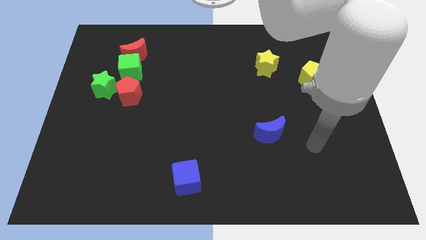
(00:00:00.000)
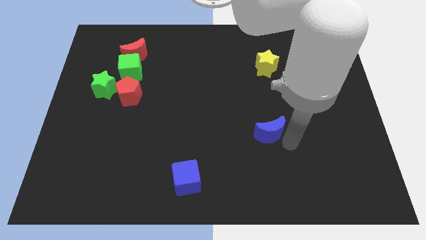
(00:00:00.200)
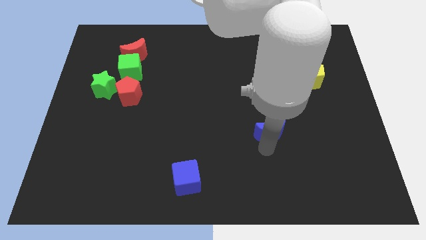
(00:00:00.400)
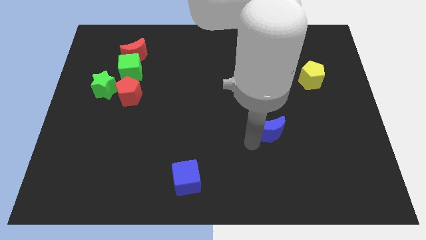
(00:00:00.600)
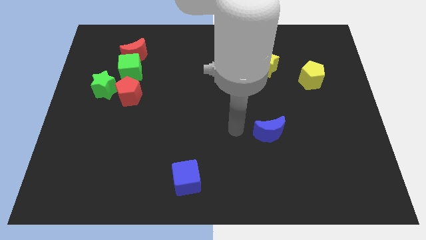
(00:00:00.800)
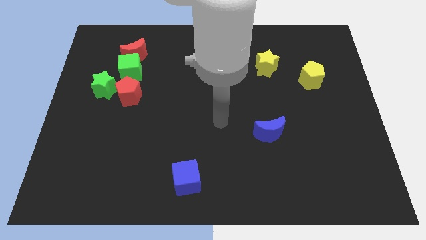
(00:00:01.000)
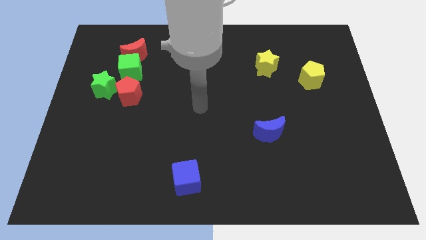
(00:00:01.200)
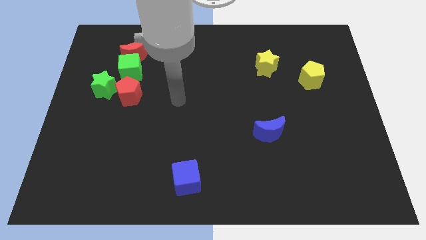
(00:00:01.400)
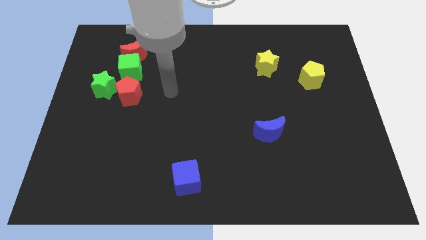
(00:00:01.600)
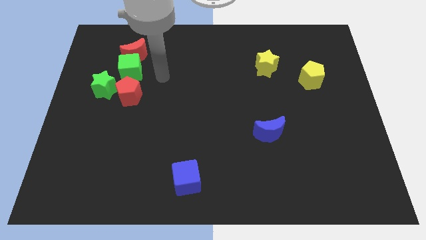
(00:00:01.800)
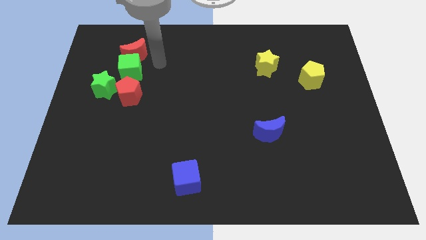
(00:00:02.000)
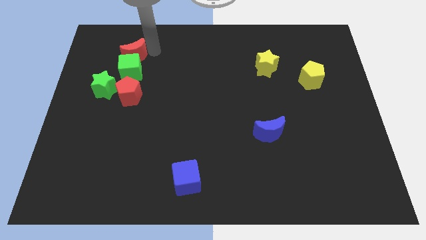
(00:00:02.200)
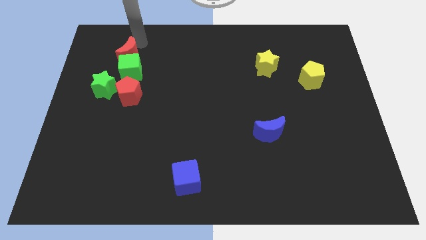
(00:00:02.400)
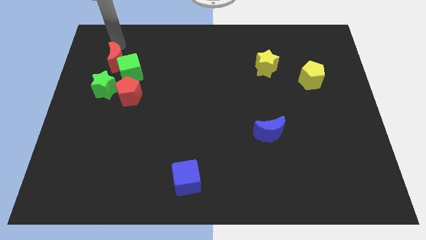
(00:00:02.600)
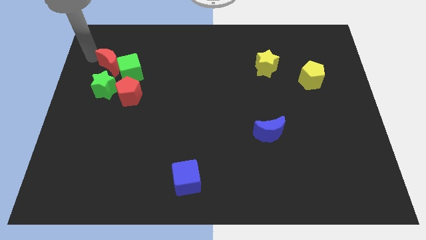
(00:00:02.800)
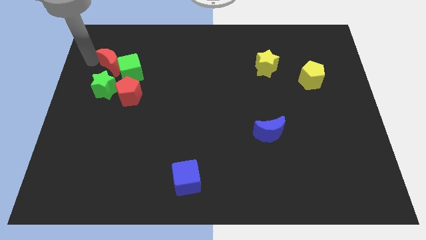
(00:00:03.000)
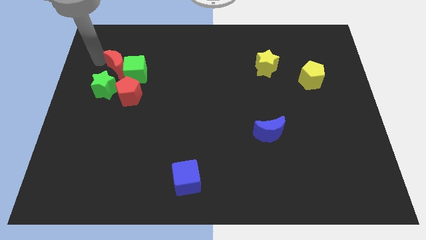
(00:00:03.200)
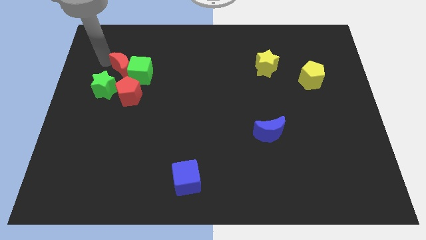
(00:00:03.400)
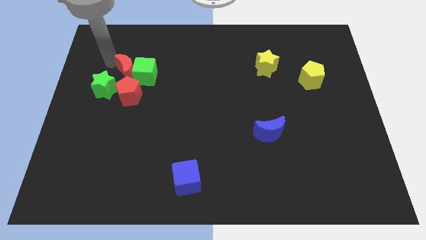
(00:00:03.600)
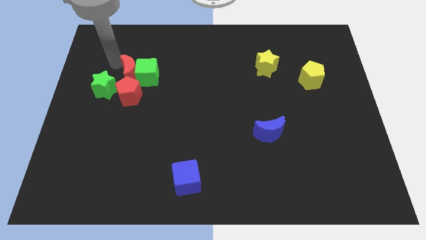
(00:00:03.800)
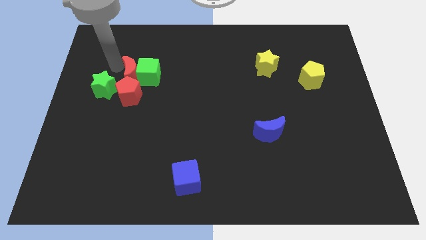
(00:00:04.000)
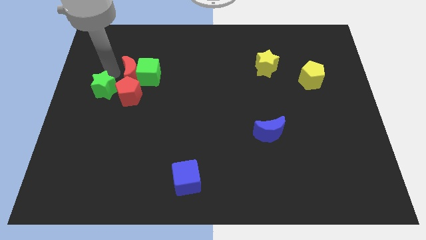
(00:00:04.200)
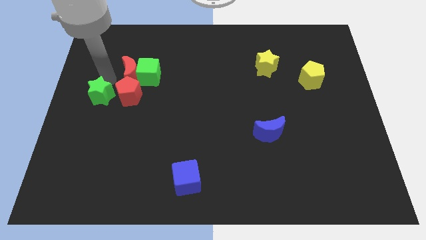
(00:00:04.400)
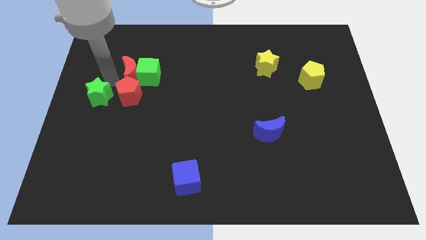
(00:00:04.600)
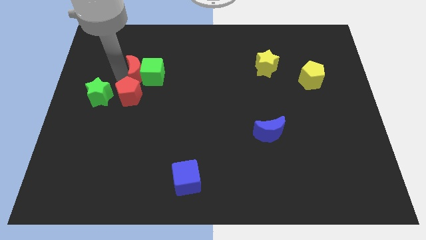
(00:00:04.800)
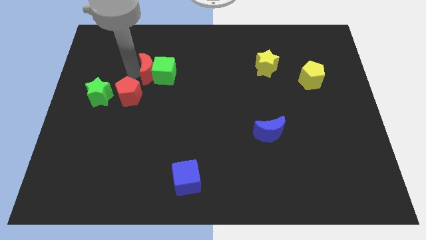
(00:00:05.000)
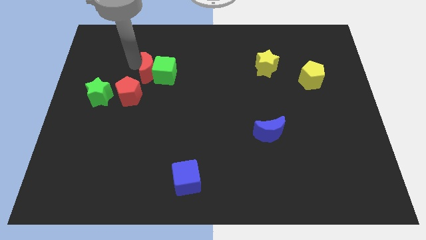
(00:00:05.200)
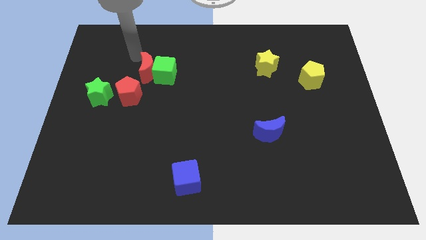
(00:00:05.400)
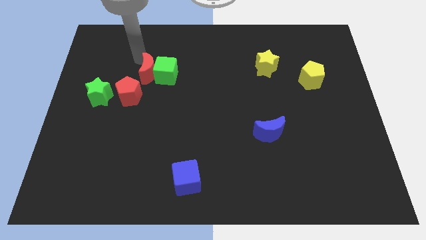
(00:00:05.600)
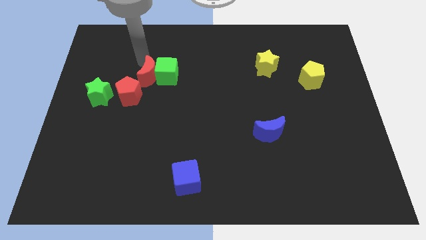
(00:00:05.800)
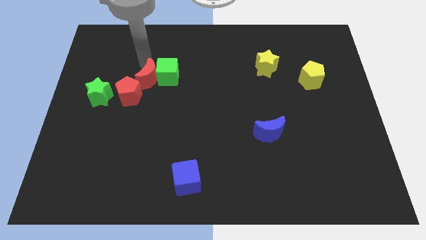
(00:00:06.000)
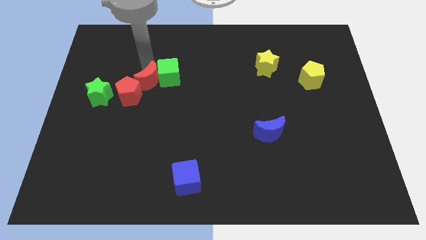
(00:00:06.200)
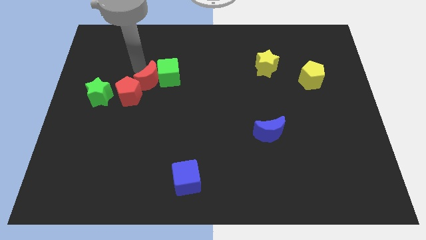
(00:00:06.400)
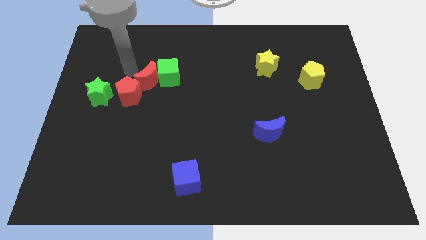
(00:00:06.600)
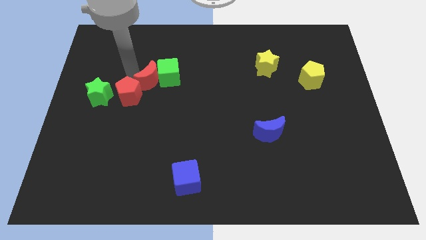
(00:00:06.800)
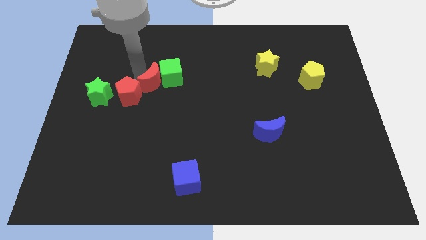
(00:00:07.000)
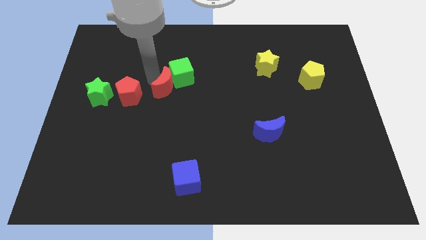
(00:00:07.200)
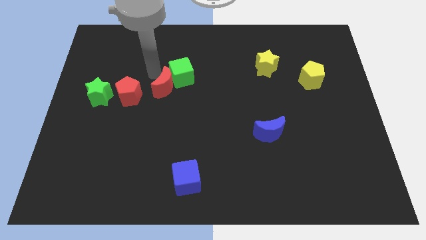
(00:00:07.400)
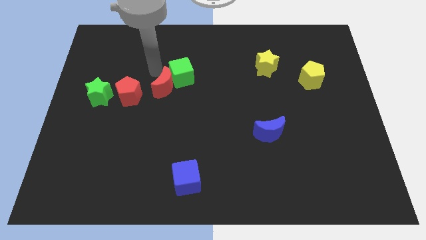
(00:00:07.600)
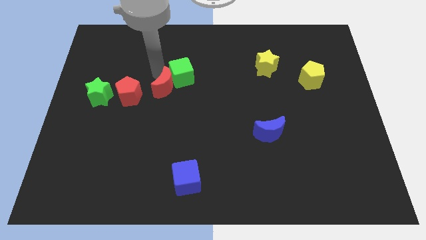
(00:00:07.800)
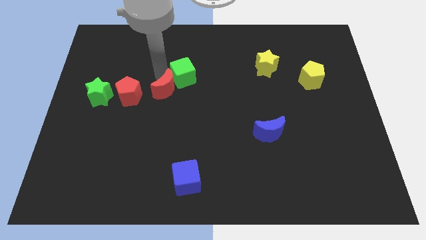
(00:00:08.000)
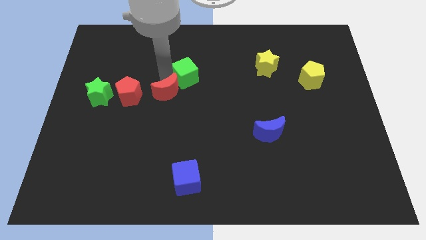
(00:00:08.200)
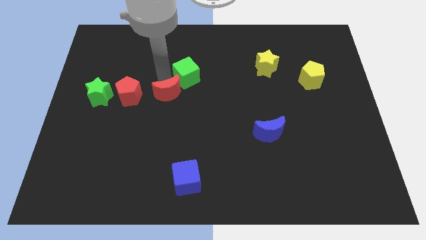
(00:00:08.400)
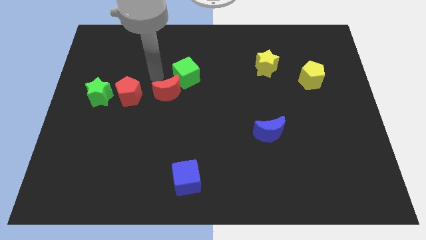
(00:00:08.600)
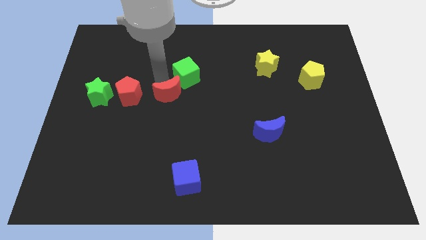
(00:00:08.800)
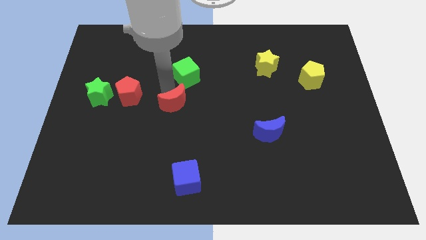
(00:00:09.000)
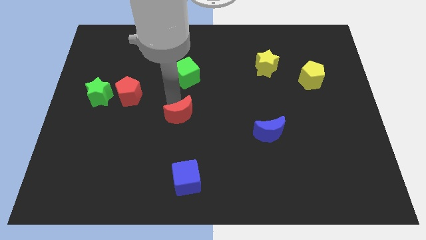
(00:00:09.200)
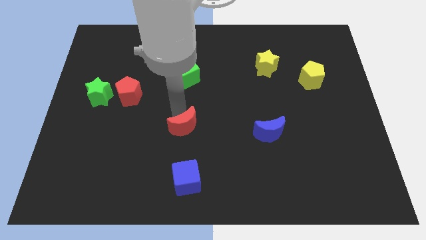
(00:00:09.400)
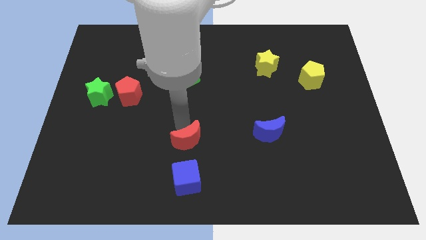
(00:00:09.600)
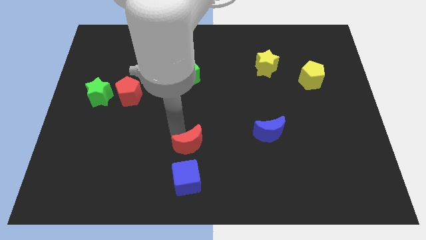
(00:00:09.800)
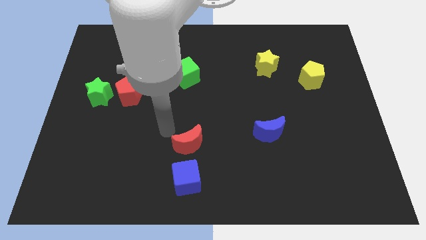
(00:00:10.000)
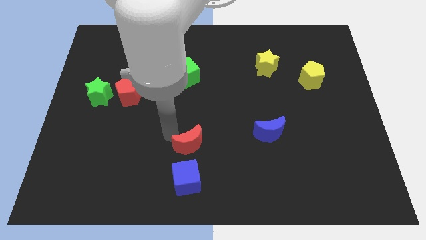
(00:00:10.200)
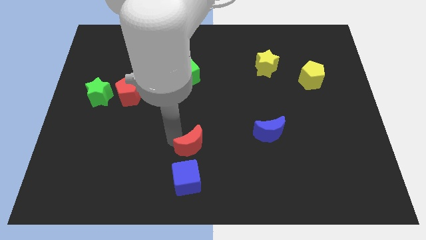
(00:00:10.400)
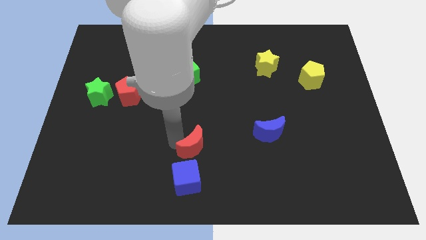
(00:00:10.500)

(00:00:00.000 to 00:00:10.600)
move the red moon to the top right of the blue cube

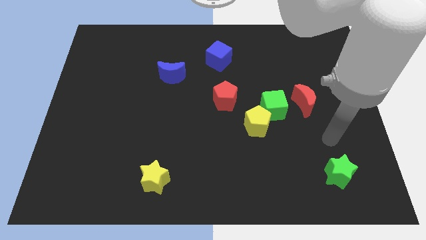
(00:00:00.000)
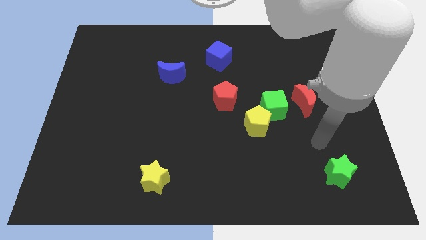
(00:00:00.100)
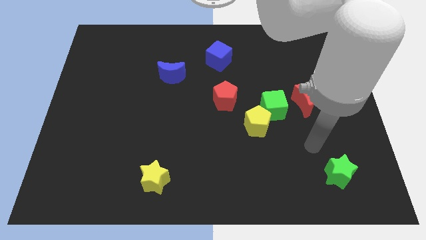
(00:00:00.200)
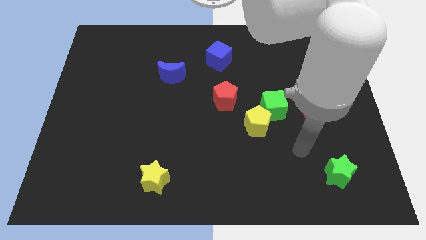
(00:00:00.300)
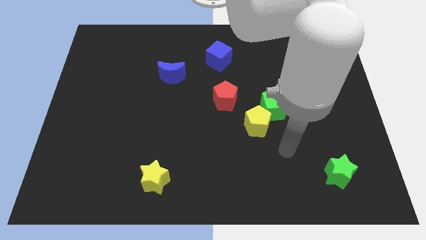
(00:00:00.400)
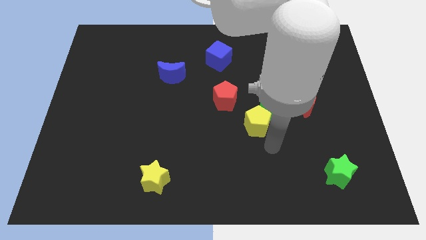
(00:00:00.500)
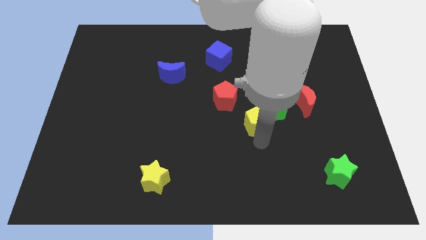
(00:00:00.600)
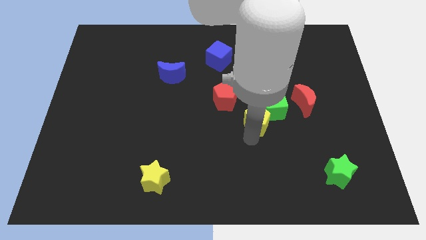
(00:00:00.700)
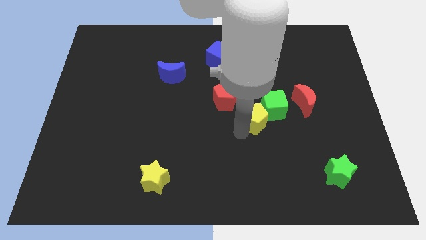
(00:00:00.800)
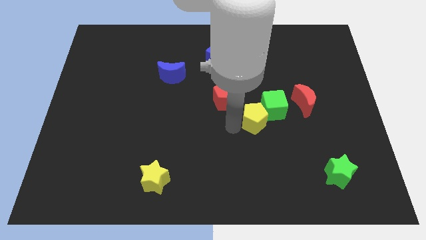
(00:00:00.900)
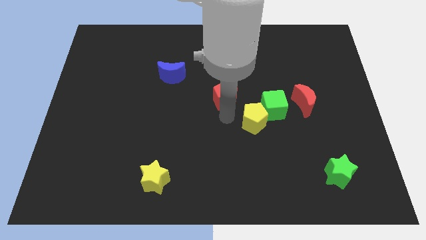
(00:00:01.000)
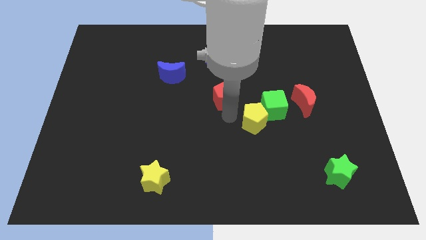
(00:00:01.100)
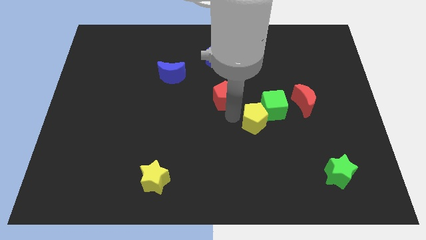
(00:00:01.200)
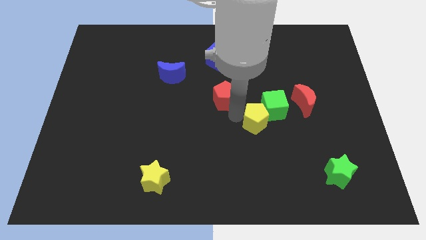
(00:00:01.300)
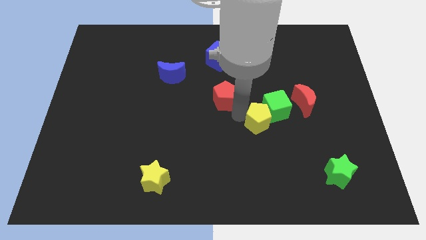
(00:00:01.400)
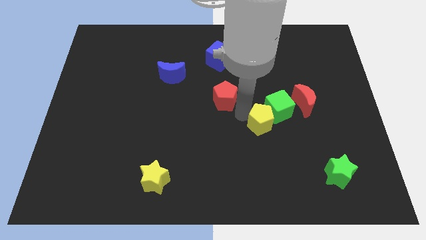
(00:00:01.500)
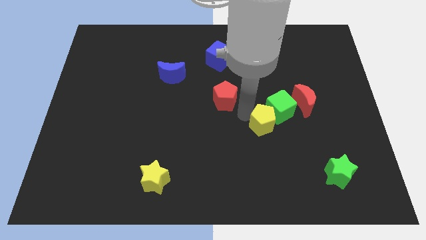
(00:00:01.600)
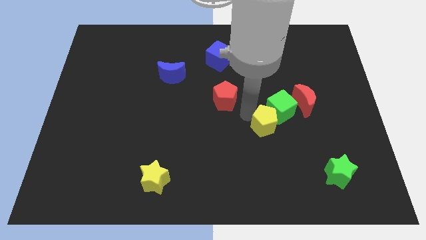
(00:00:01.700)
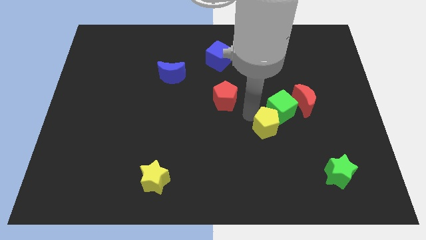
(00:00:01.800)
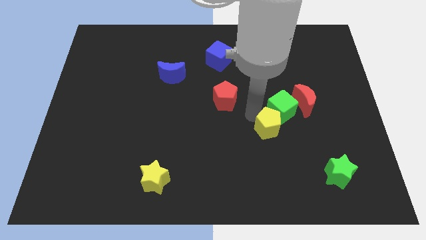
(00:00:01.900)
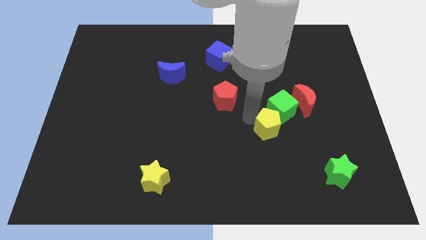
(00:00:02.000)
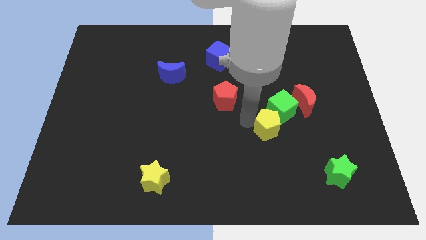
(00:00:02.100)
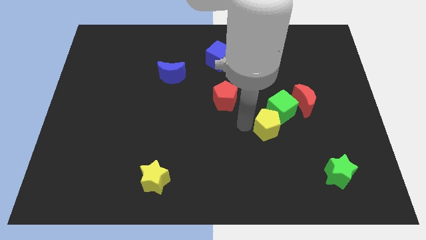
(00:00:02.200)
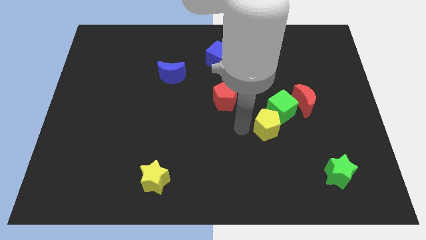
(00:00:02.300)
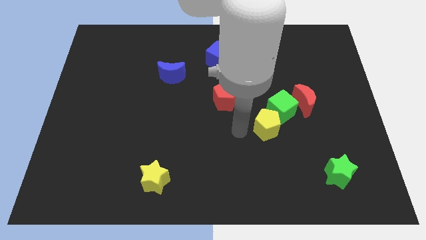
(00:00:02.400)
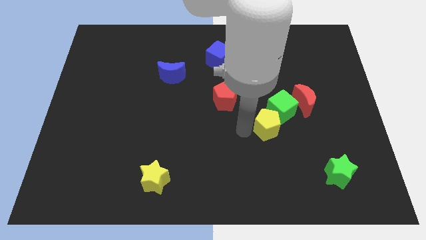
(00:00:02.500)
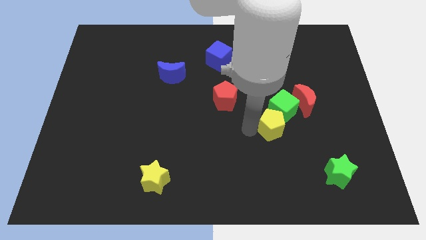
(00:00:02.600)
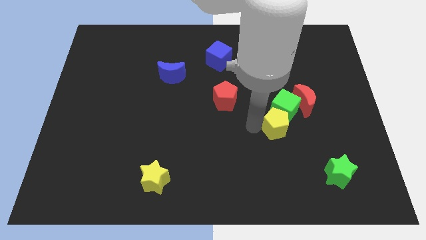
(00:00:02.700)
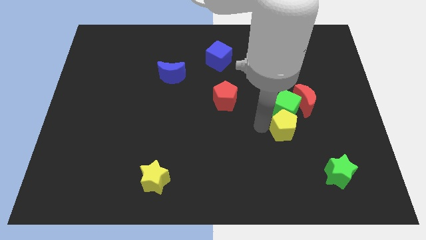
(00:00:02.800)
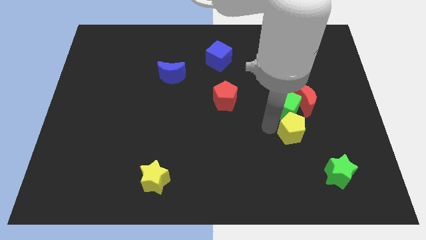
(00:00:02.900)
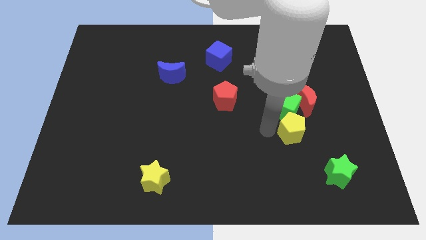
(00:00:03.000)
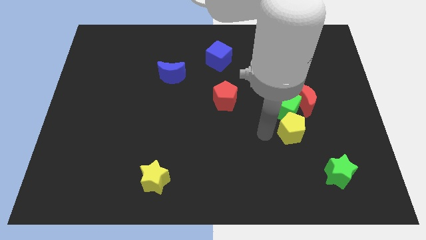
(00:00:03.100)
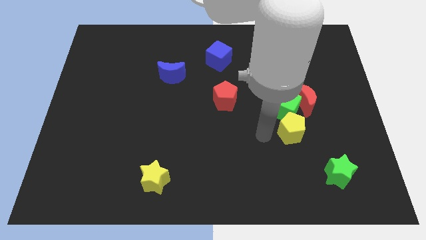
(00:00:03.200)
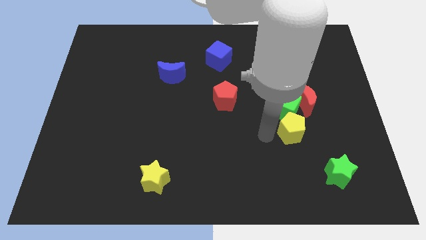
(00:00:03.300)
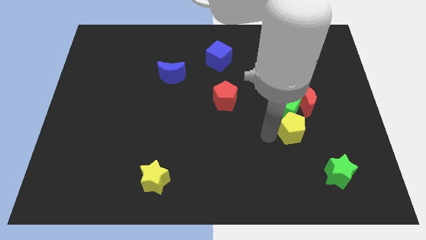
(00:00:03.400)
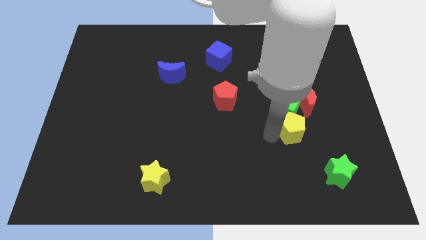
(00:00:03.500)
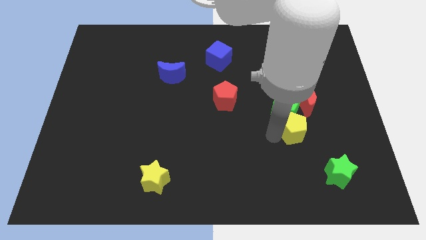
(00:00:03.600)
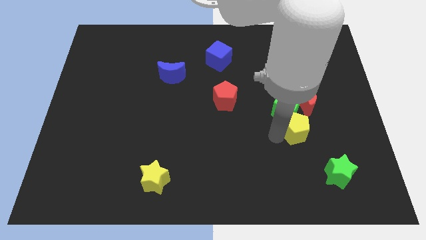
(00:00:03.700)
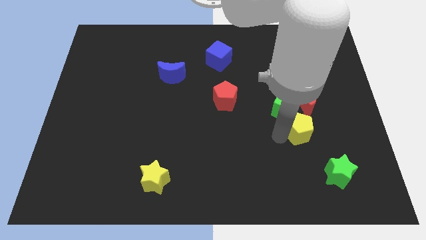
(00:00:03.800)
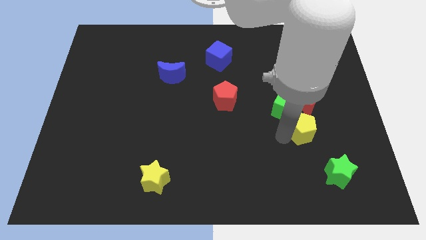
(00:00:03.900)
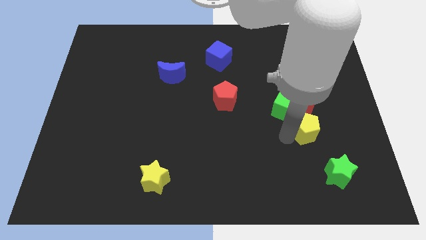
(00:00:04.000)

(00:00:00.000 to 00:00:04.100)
move the yellow pentagon to the top of the green star
